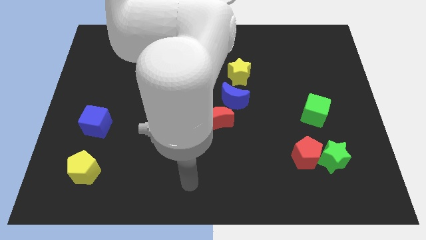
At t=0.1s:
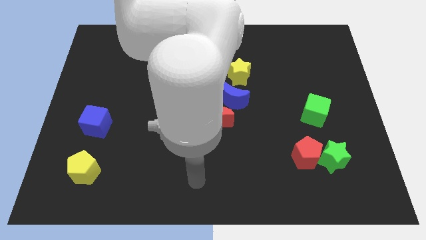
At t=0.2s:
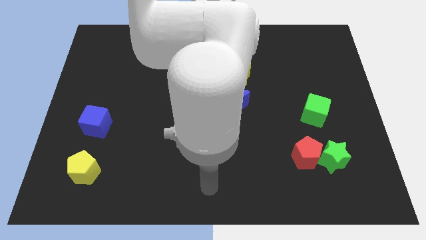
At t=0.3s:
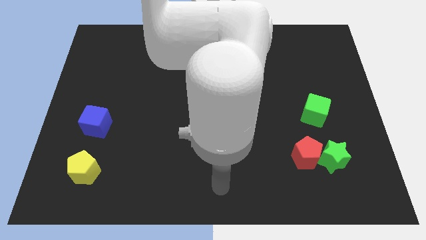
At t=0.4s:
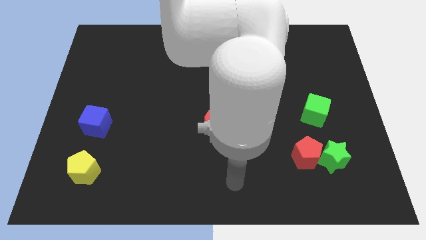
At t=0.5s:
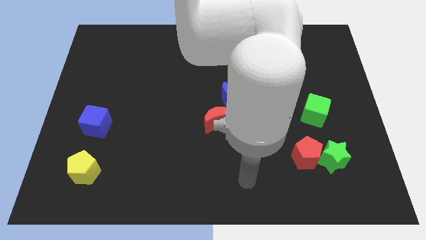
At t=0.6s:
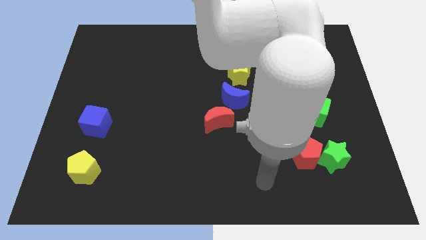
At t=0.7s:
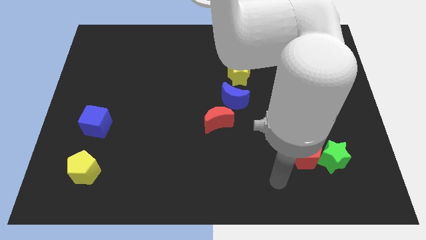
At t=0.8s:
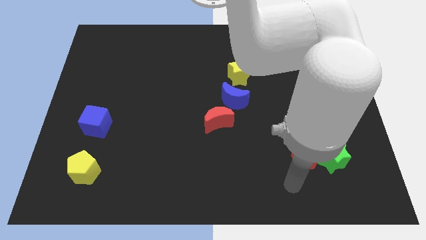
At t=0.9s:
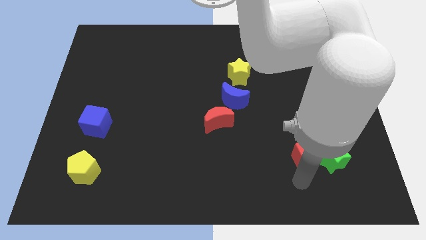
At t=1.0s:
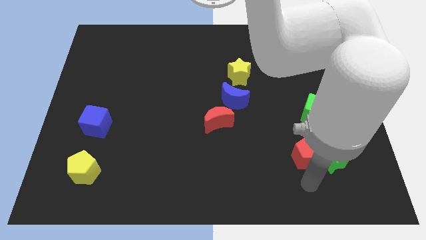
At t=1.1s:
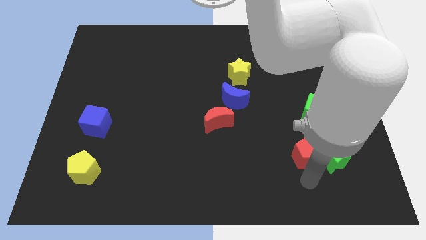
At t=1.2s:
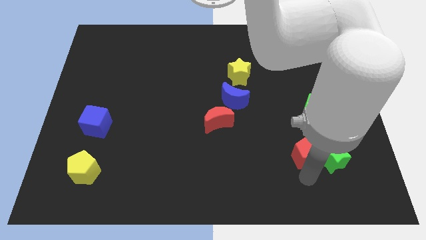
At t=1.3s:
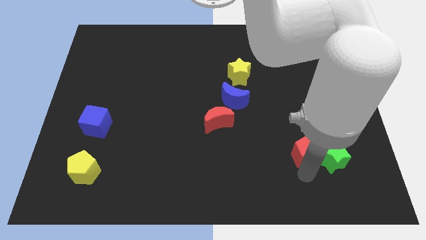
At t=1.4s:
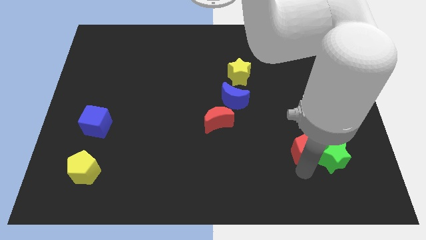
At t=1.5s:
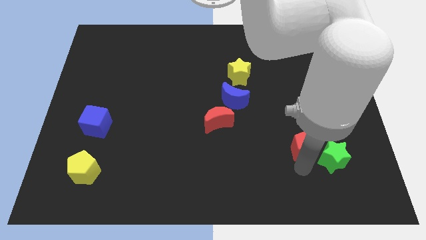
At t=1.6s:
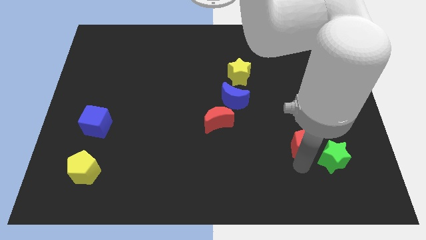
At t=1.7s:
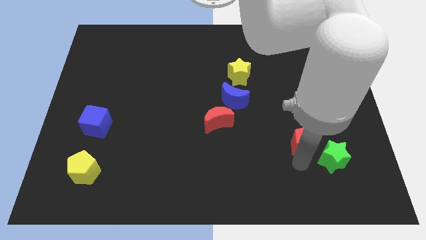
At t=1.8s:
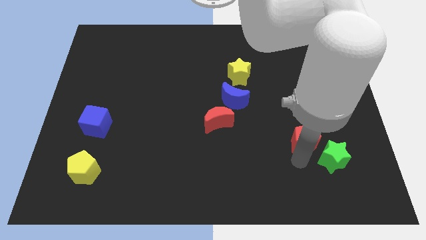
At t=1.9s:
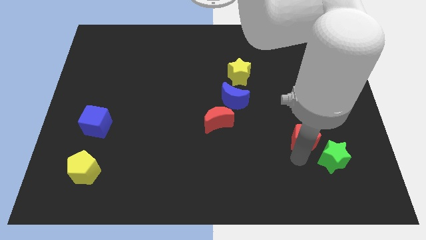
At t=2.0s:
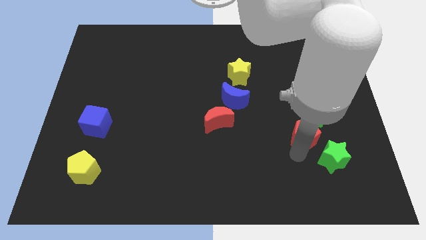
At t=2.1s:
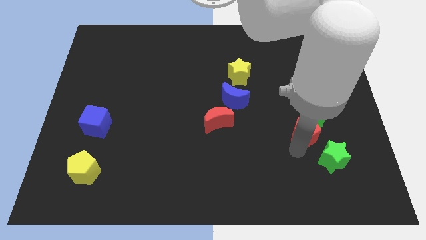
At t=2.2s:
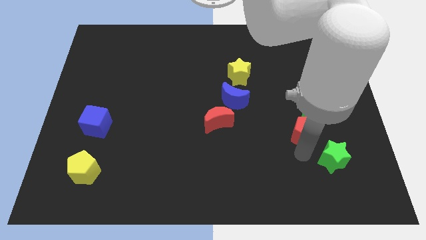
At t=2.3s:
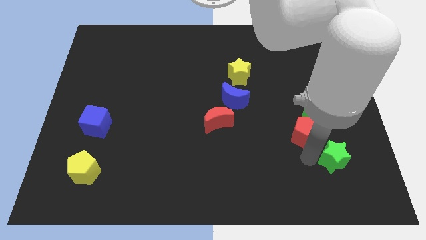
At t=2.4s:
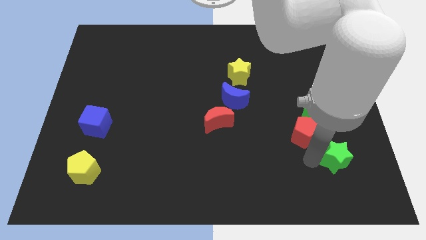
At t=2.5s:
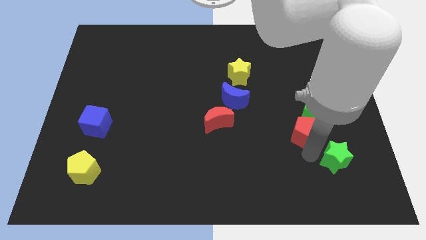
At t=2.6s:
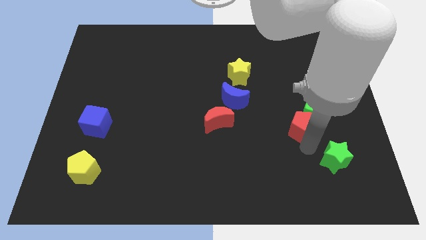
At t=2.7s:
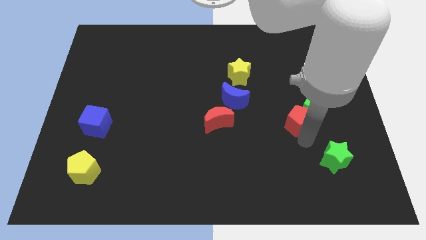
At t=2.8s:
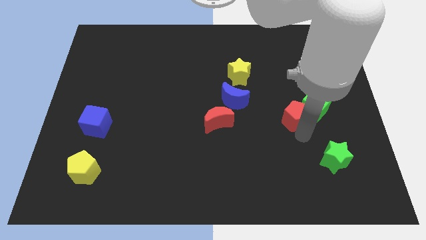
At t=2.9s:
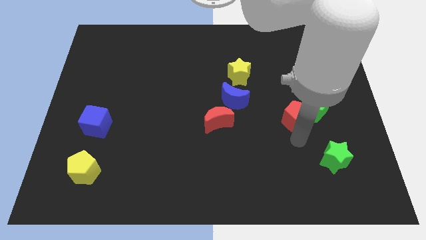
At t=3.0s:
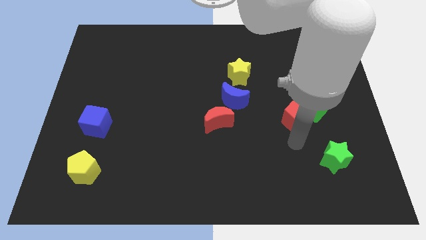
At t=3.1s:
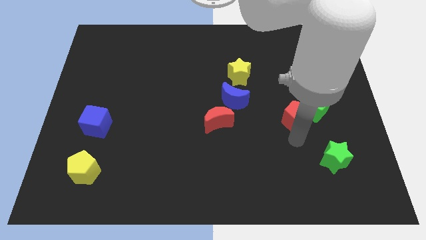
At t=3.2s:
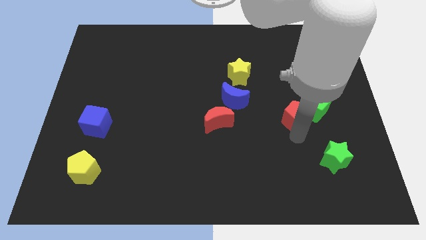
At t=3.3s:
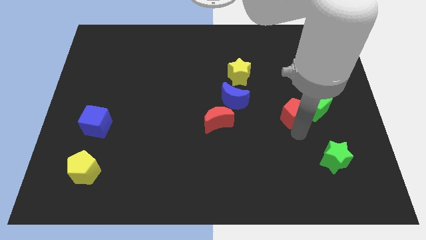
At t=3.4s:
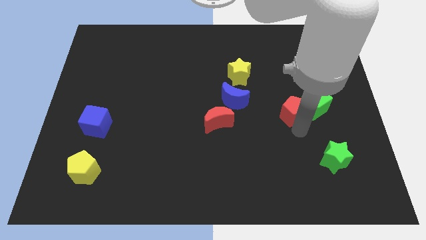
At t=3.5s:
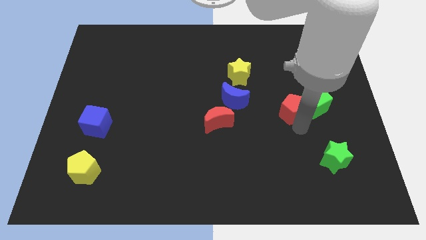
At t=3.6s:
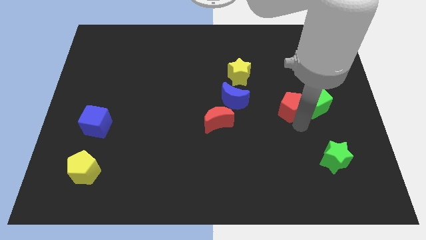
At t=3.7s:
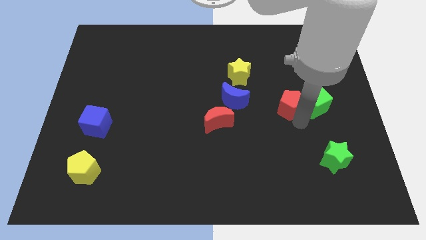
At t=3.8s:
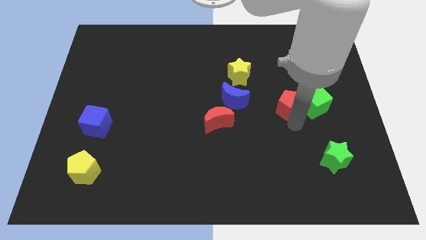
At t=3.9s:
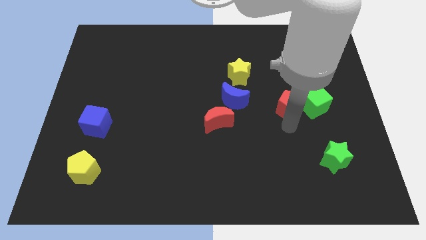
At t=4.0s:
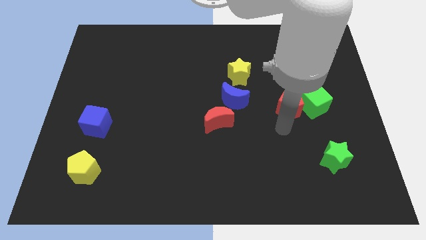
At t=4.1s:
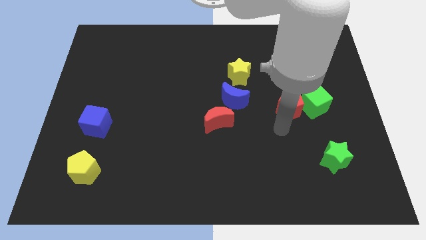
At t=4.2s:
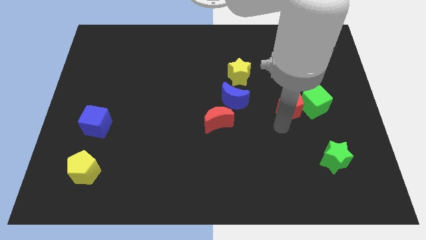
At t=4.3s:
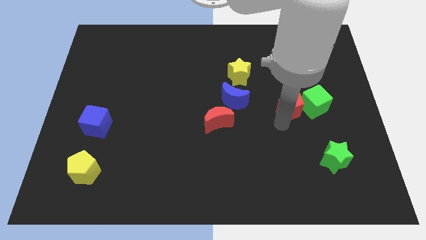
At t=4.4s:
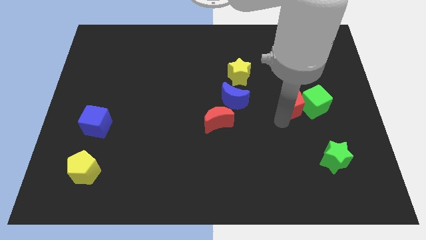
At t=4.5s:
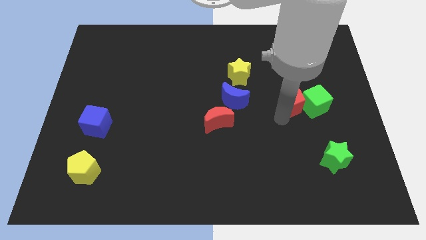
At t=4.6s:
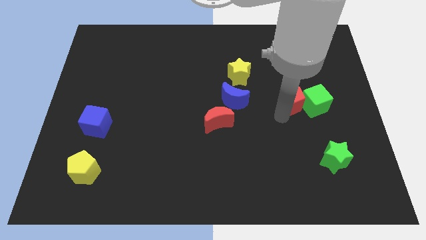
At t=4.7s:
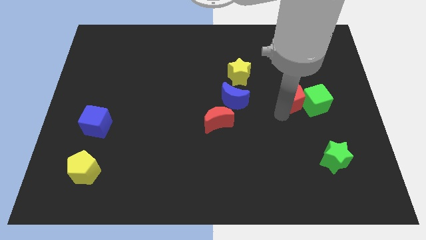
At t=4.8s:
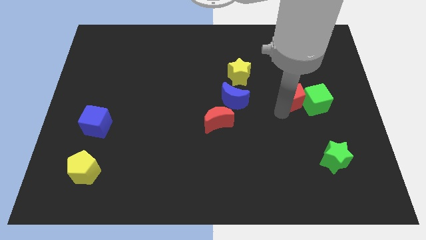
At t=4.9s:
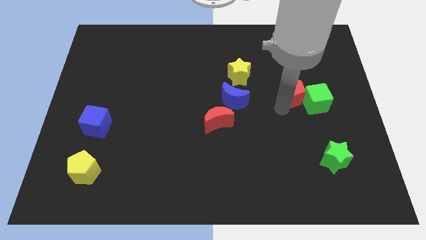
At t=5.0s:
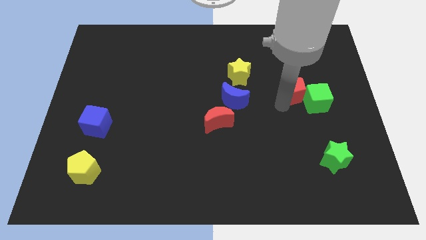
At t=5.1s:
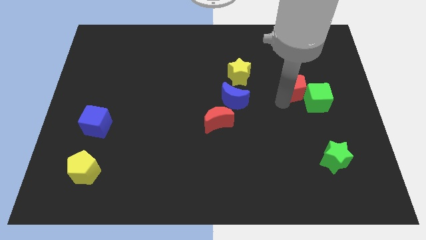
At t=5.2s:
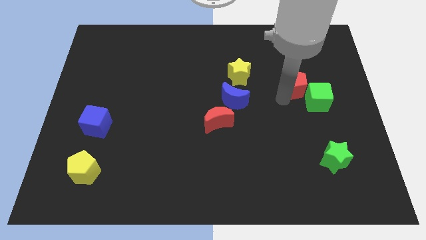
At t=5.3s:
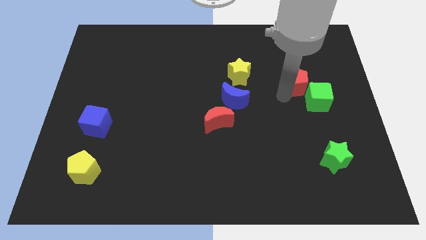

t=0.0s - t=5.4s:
slide the red pentagon to the top of the green cube

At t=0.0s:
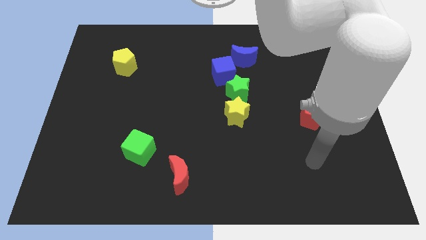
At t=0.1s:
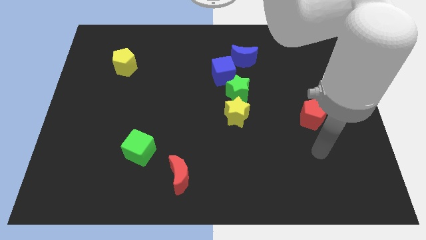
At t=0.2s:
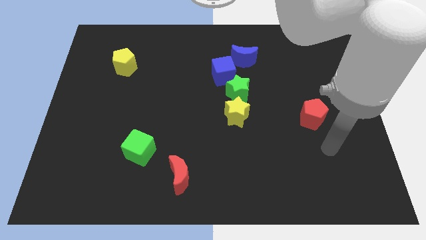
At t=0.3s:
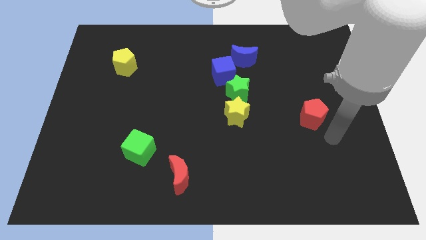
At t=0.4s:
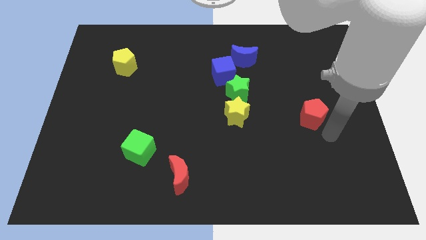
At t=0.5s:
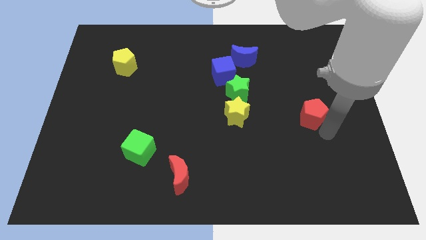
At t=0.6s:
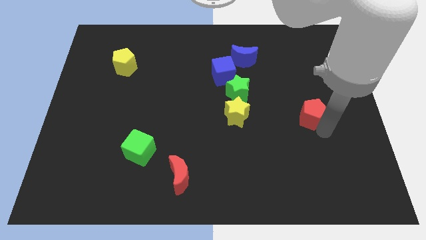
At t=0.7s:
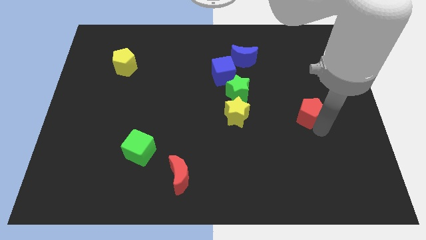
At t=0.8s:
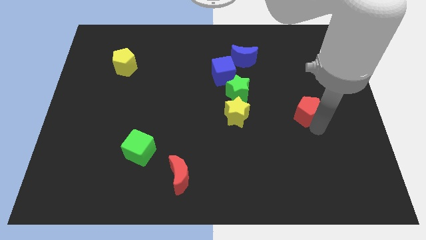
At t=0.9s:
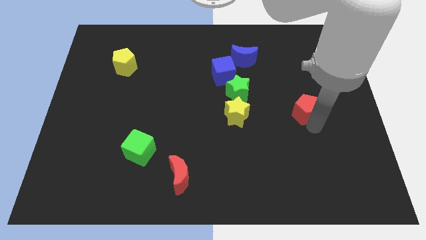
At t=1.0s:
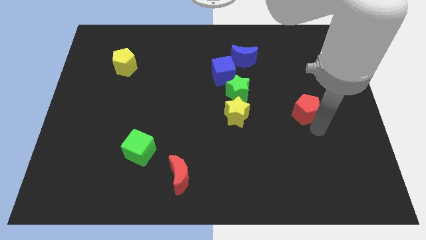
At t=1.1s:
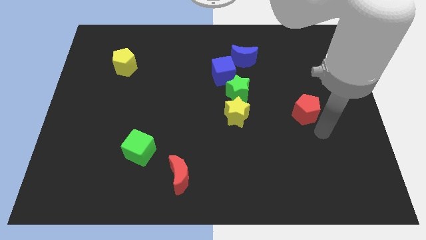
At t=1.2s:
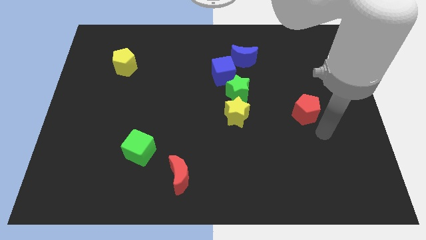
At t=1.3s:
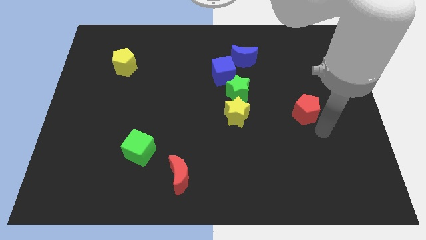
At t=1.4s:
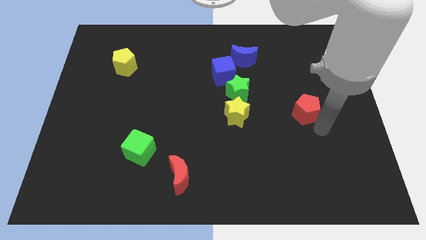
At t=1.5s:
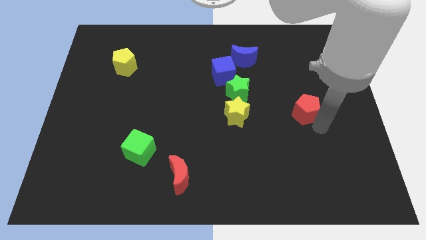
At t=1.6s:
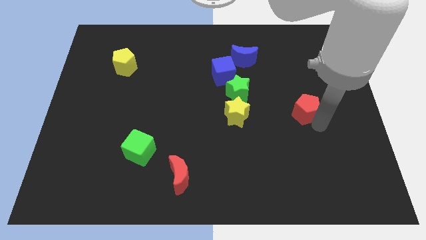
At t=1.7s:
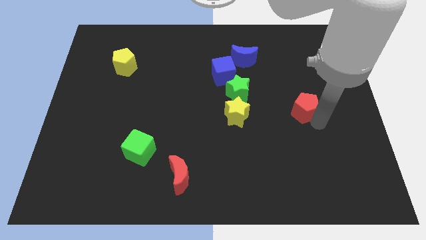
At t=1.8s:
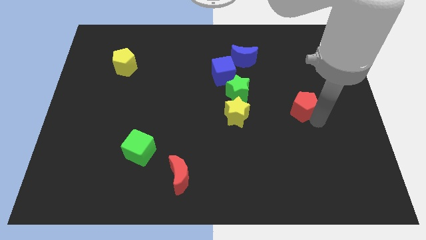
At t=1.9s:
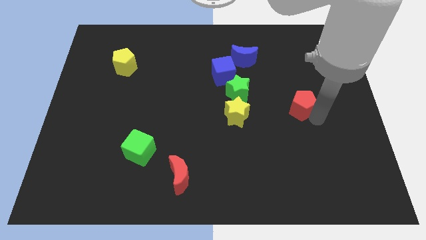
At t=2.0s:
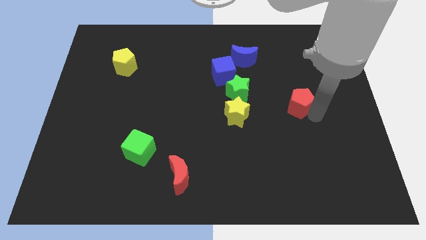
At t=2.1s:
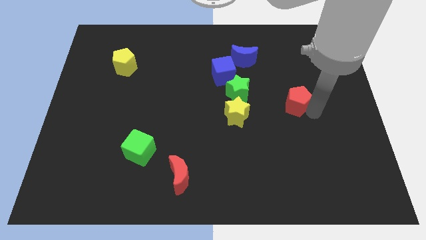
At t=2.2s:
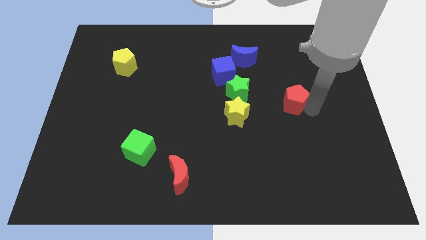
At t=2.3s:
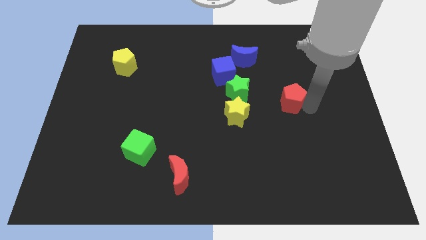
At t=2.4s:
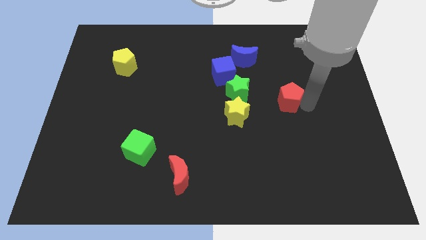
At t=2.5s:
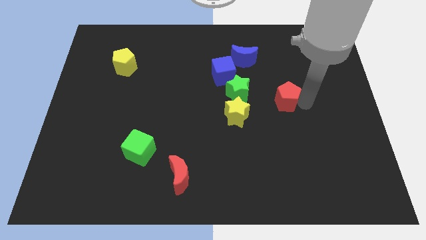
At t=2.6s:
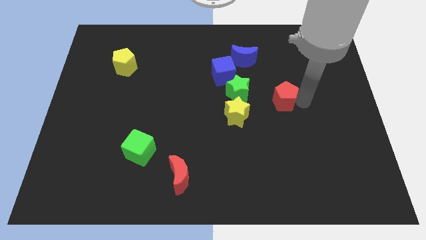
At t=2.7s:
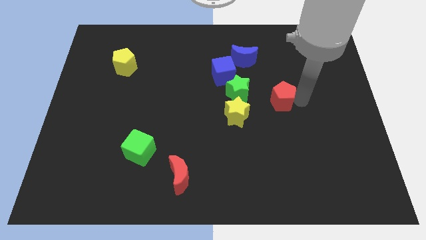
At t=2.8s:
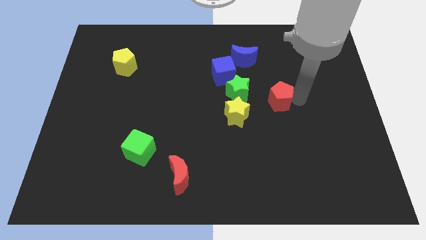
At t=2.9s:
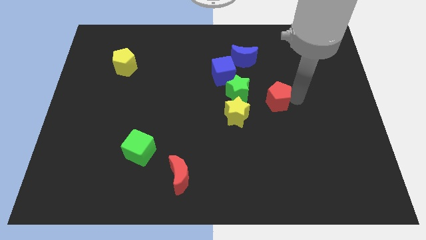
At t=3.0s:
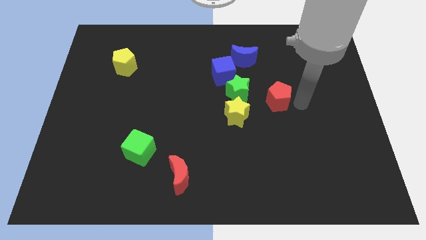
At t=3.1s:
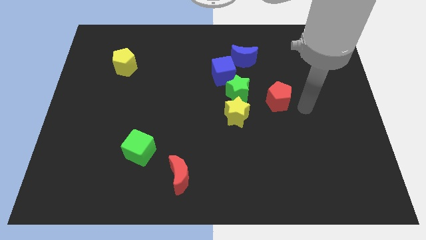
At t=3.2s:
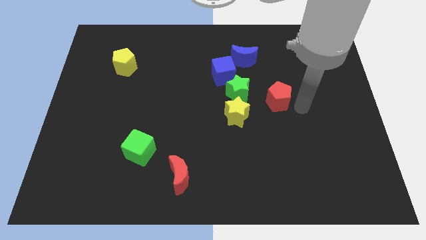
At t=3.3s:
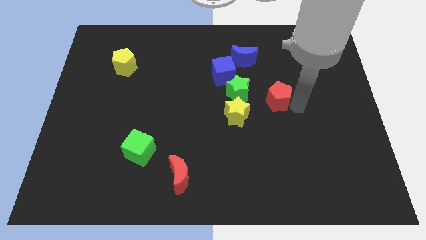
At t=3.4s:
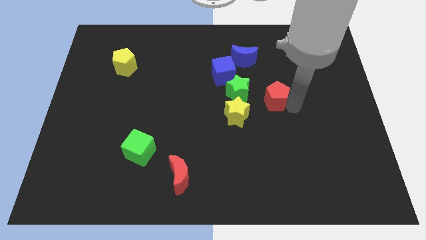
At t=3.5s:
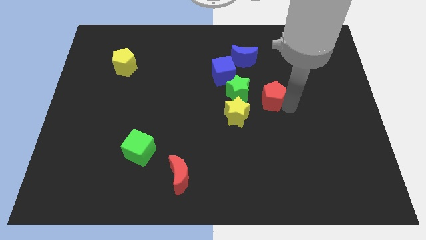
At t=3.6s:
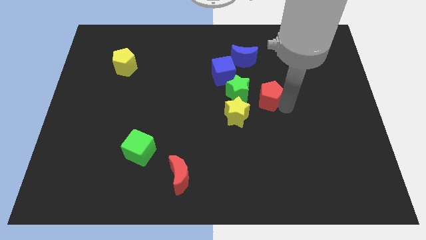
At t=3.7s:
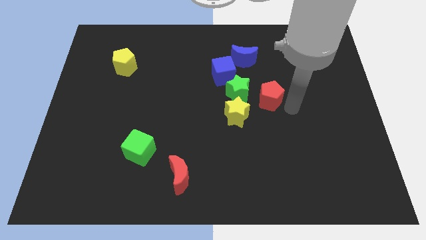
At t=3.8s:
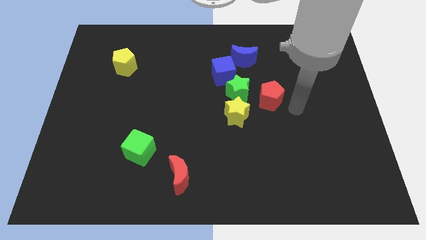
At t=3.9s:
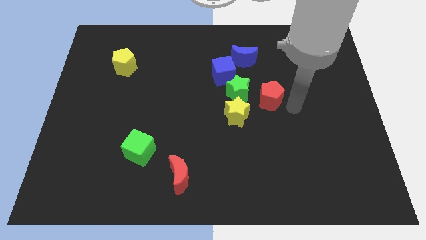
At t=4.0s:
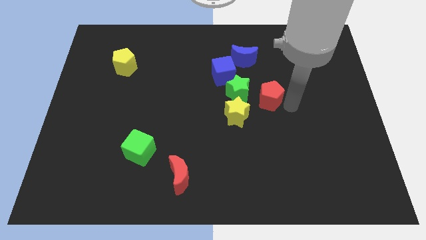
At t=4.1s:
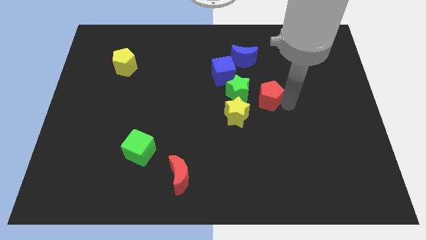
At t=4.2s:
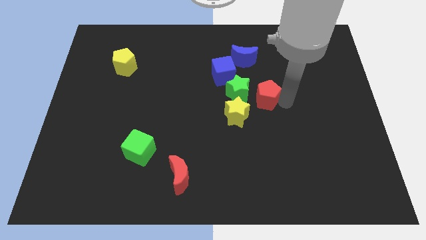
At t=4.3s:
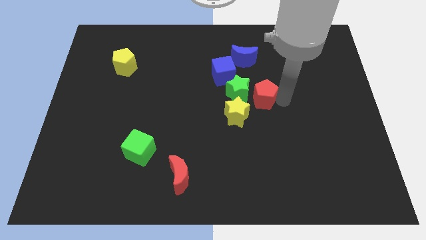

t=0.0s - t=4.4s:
put the red pentagon to the bottom right of the blue cube
